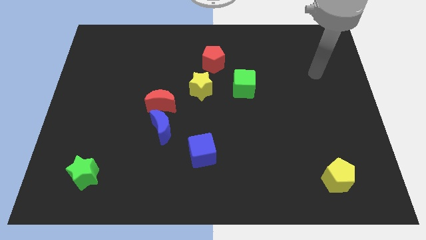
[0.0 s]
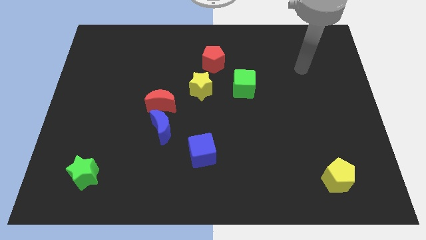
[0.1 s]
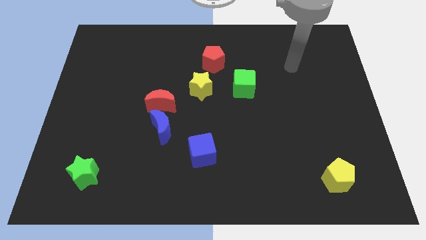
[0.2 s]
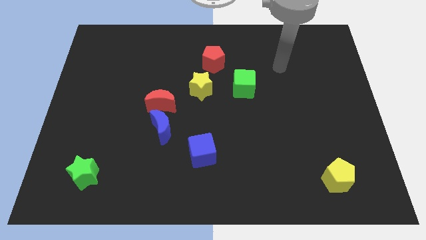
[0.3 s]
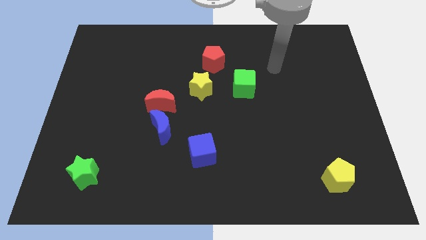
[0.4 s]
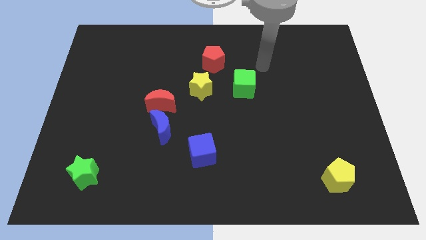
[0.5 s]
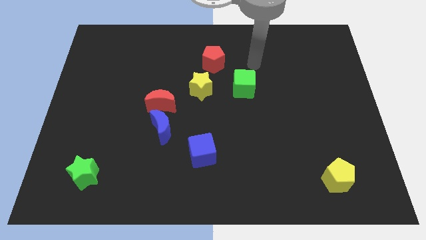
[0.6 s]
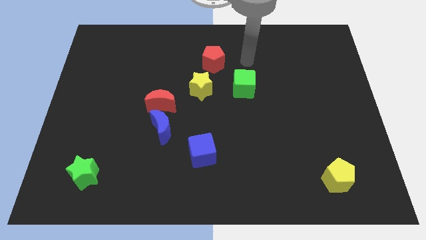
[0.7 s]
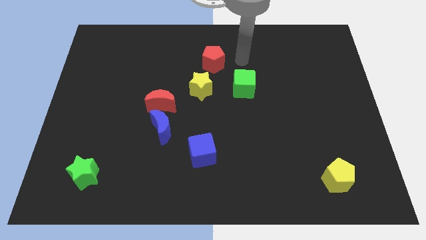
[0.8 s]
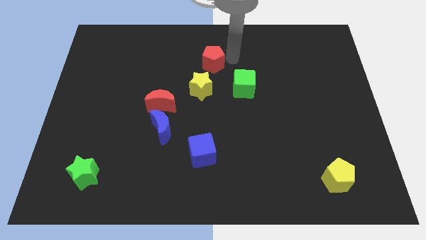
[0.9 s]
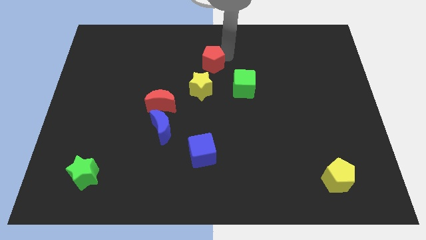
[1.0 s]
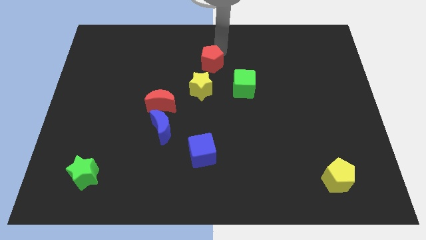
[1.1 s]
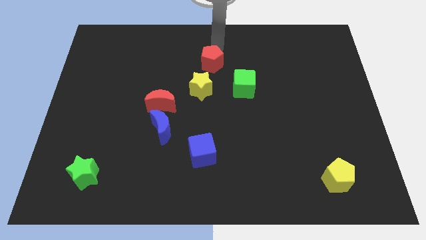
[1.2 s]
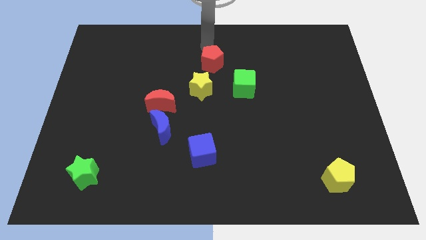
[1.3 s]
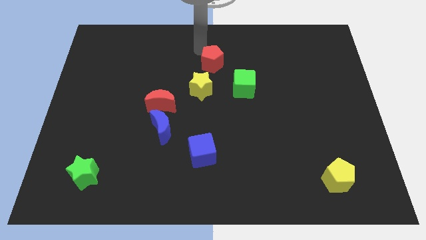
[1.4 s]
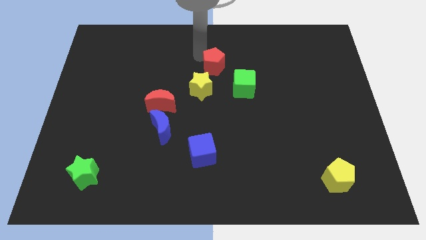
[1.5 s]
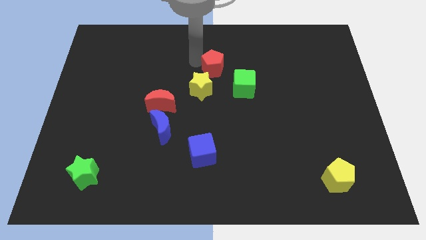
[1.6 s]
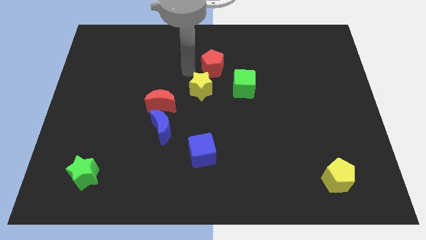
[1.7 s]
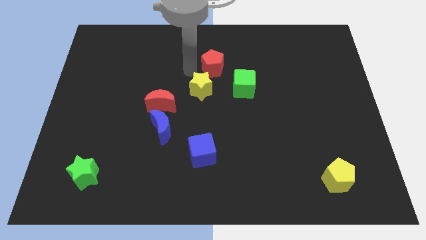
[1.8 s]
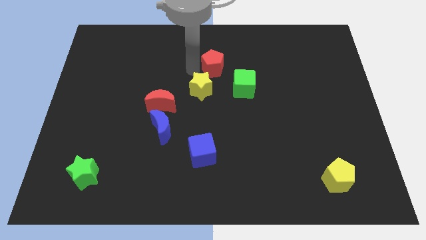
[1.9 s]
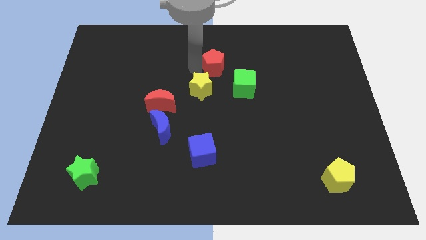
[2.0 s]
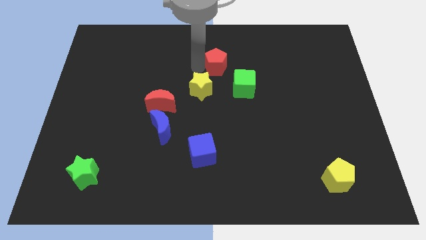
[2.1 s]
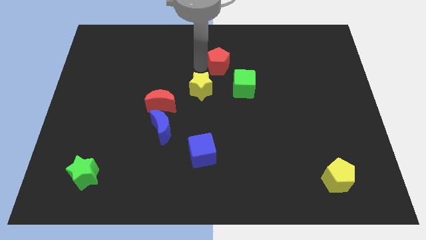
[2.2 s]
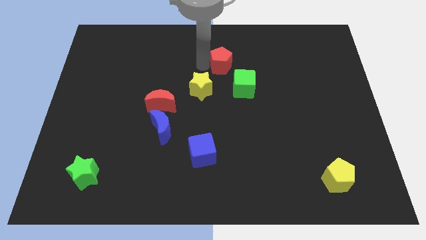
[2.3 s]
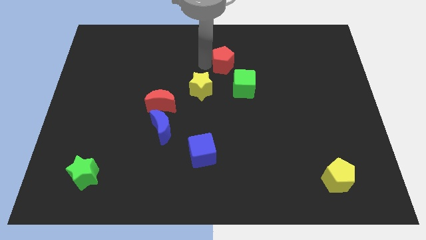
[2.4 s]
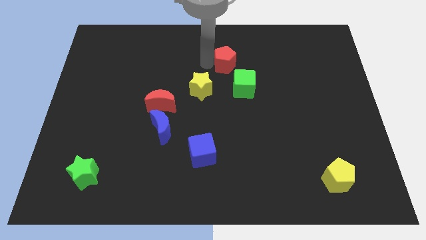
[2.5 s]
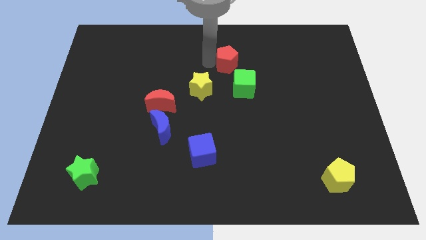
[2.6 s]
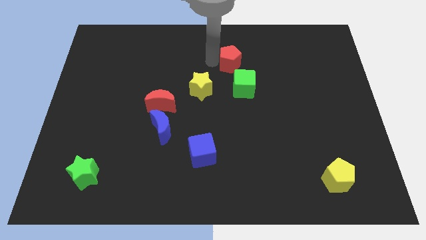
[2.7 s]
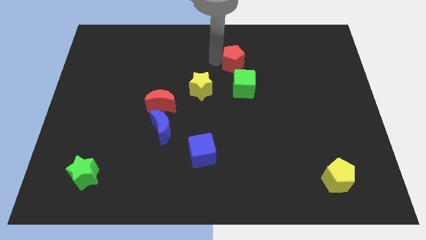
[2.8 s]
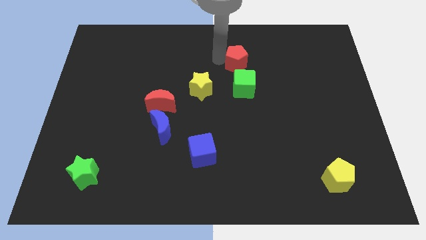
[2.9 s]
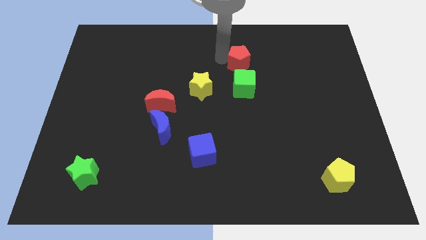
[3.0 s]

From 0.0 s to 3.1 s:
move the red pentagon somewhat to the right

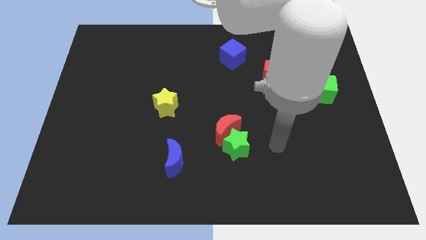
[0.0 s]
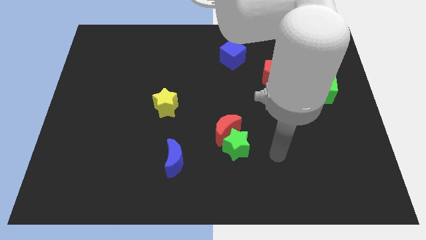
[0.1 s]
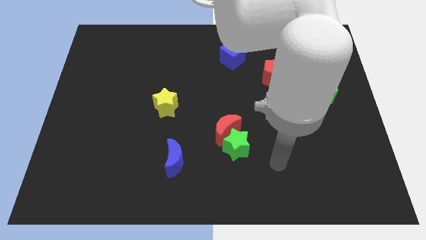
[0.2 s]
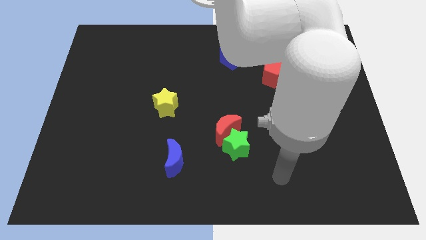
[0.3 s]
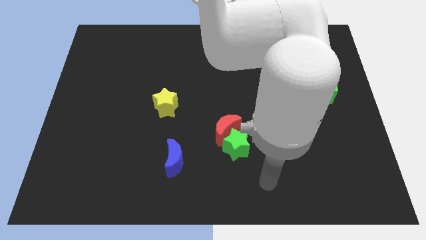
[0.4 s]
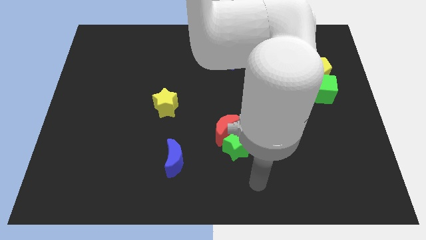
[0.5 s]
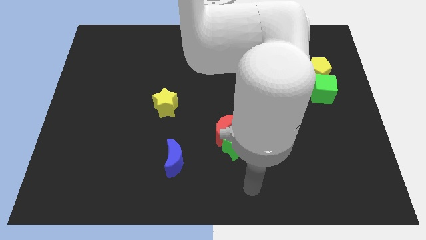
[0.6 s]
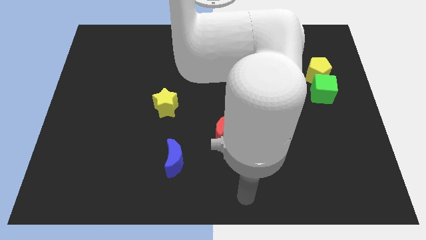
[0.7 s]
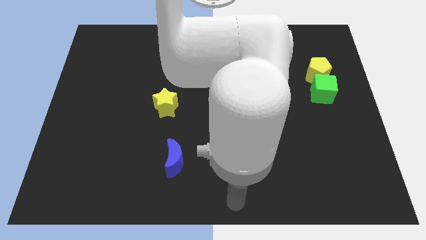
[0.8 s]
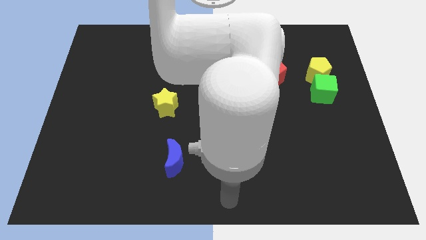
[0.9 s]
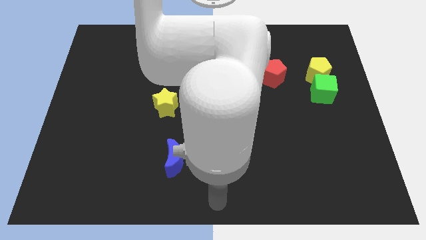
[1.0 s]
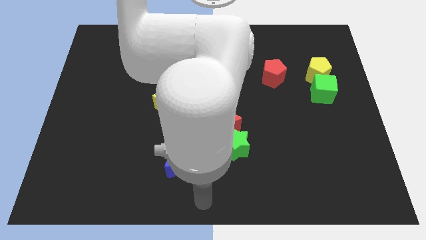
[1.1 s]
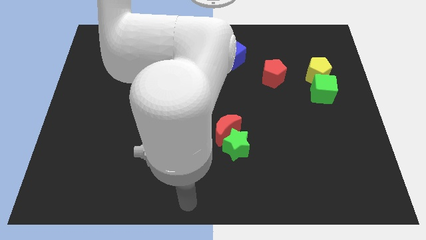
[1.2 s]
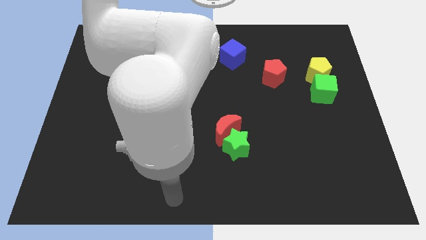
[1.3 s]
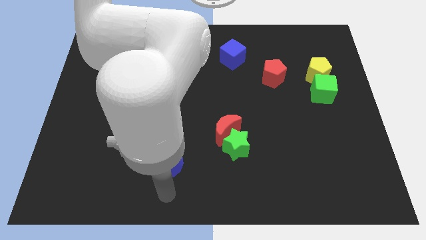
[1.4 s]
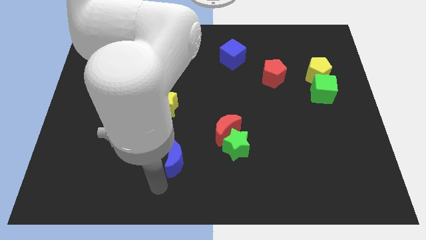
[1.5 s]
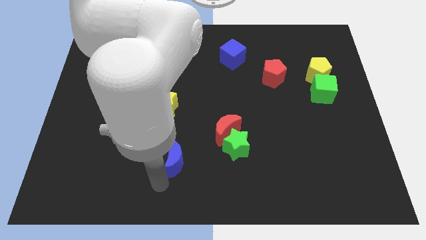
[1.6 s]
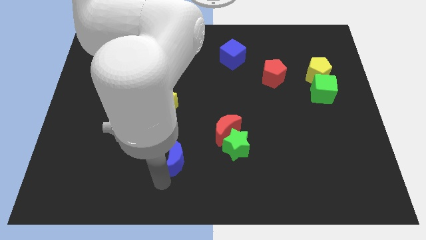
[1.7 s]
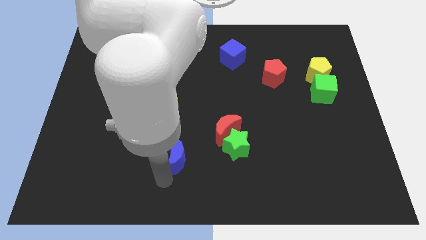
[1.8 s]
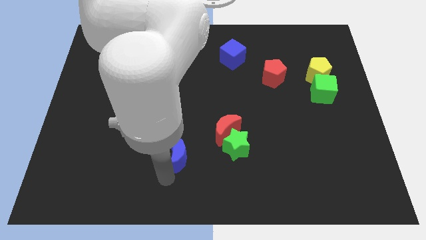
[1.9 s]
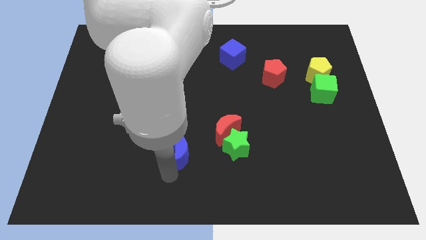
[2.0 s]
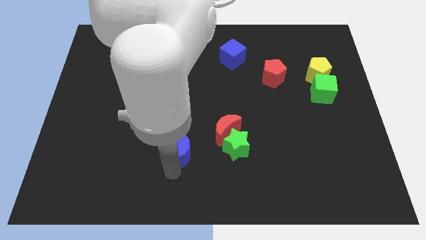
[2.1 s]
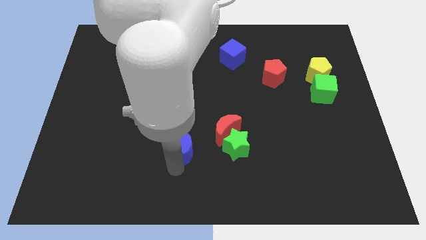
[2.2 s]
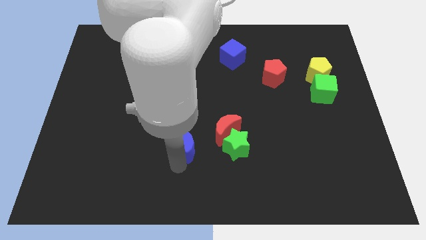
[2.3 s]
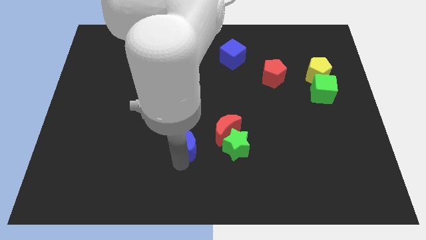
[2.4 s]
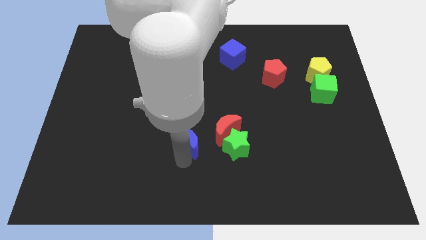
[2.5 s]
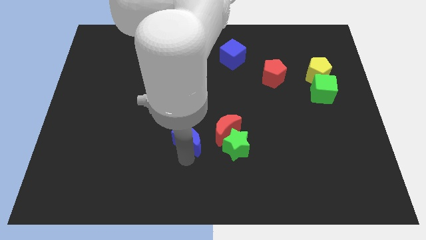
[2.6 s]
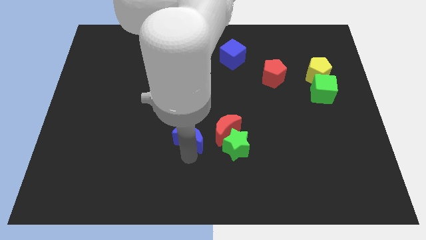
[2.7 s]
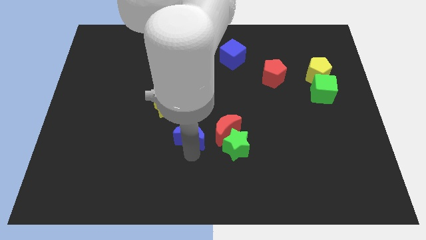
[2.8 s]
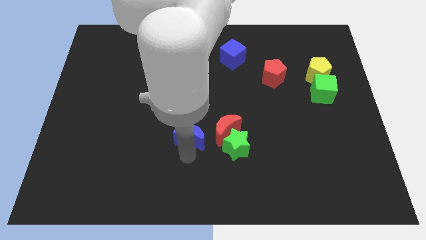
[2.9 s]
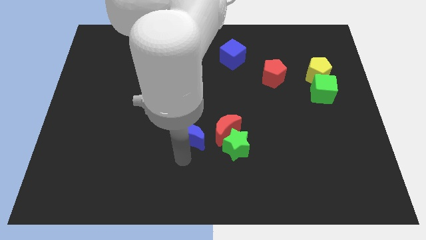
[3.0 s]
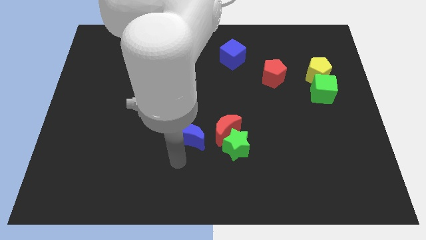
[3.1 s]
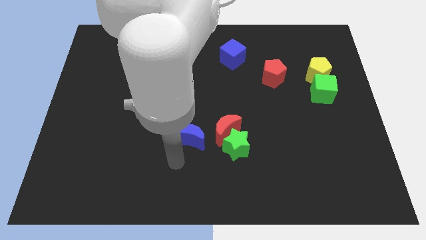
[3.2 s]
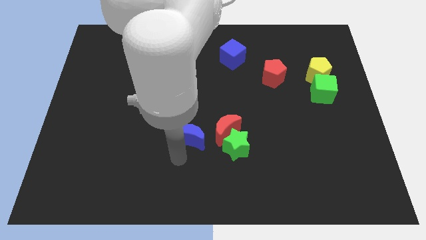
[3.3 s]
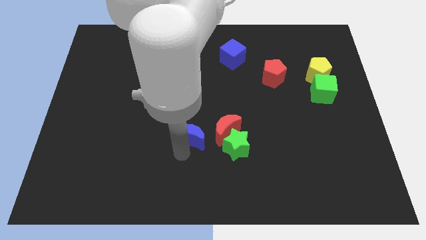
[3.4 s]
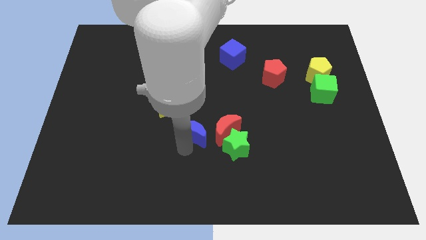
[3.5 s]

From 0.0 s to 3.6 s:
move the blue moon up and then to the right a little bit

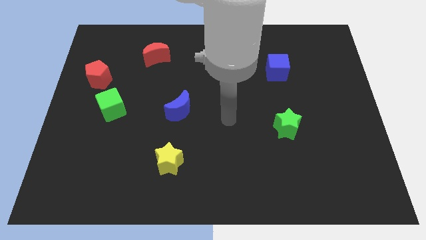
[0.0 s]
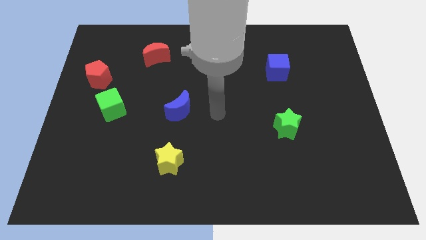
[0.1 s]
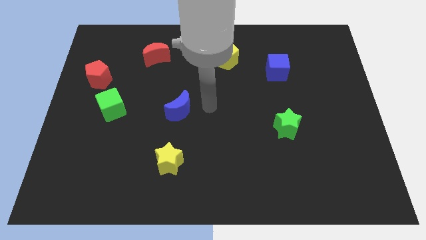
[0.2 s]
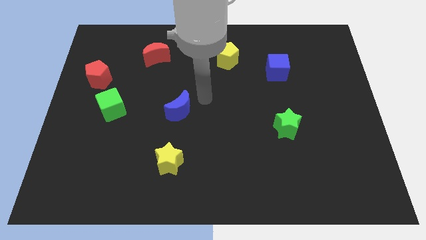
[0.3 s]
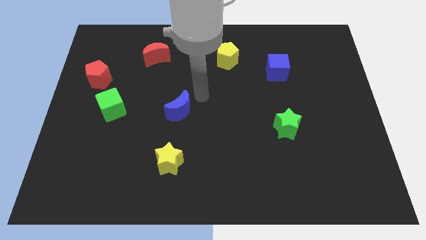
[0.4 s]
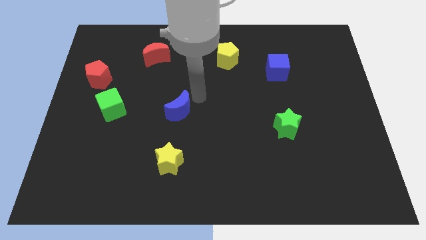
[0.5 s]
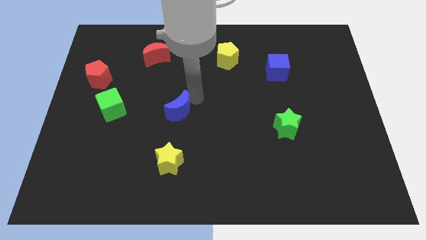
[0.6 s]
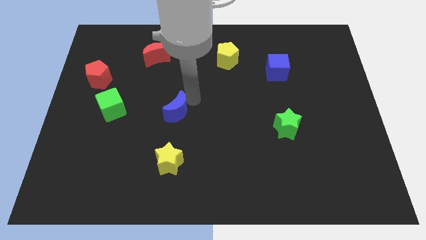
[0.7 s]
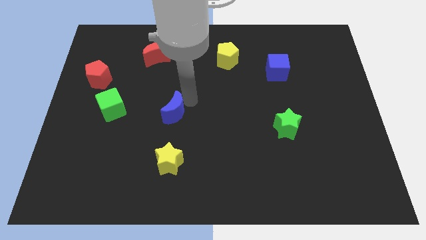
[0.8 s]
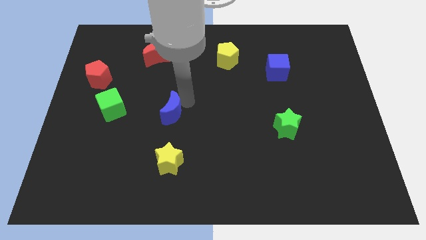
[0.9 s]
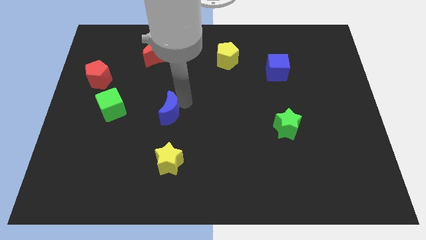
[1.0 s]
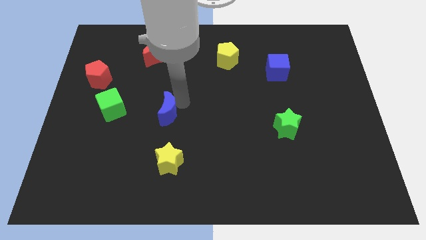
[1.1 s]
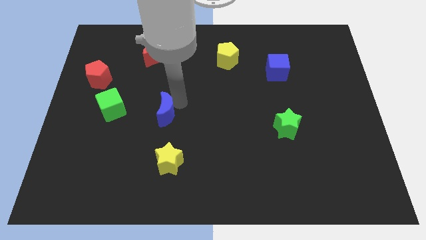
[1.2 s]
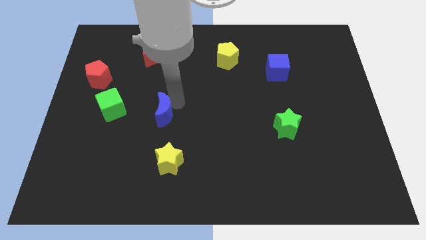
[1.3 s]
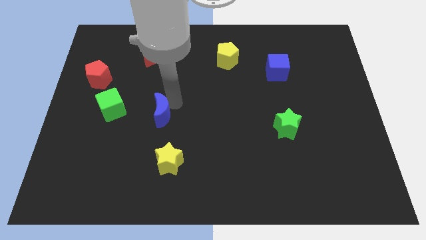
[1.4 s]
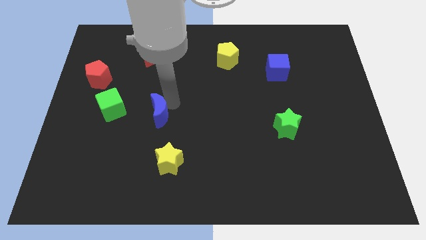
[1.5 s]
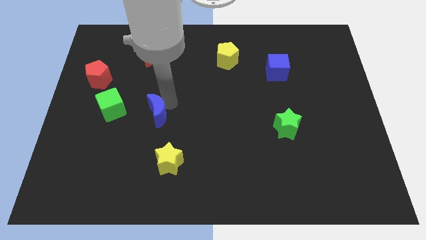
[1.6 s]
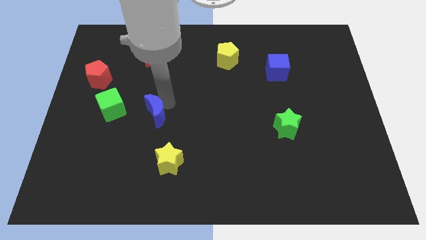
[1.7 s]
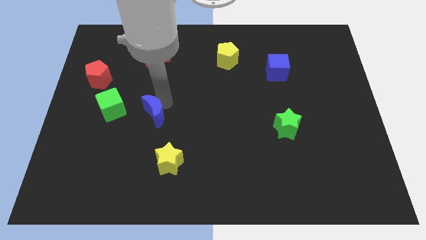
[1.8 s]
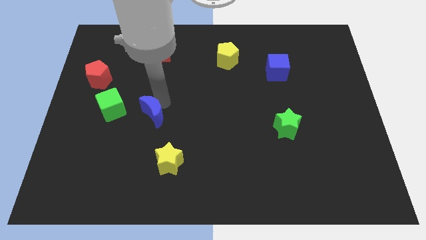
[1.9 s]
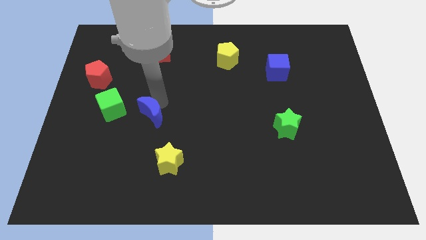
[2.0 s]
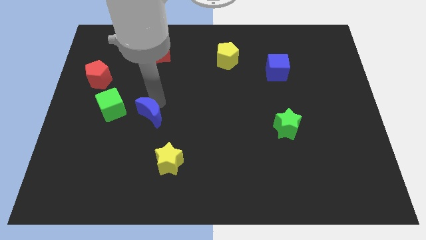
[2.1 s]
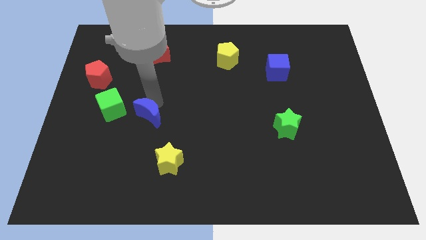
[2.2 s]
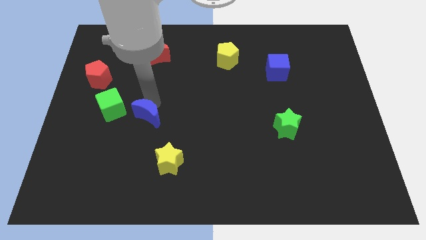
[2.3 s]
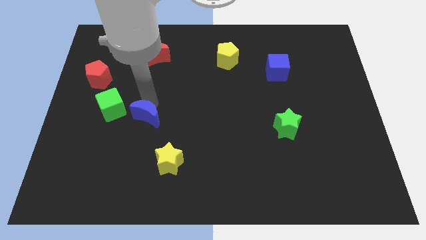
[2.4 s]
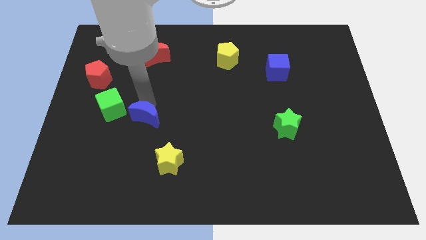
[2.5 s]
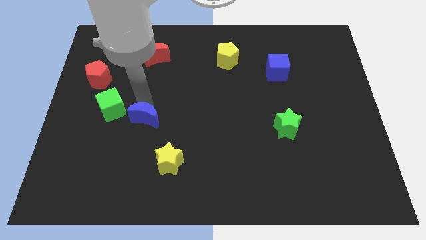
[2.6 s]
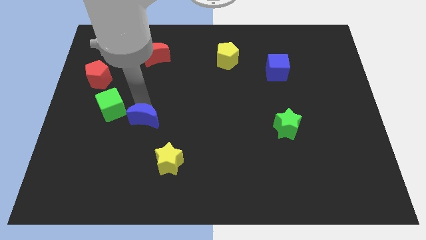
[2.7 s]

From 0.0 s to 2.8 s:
move the blue moon a bit downwards and left
